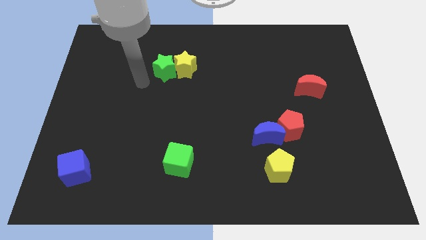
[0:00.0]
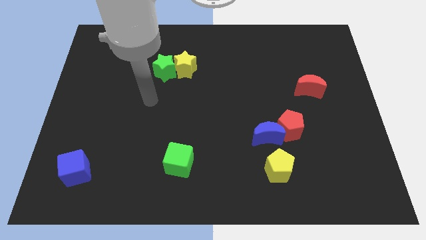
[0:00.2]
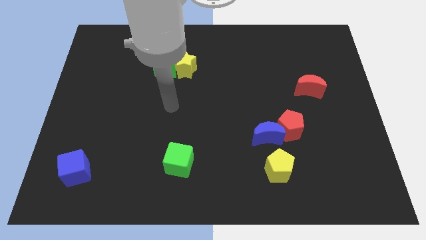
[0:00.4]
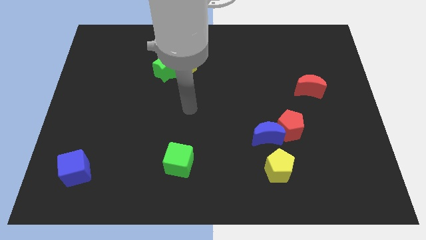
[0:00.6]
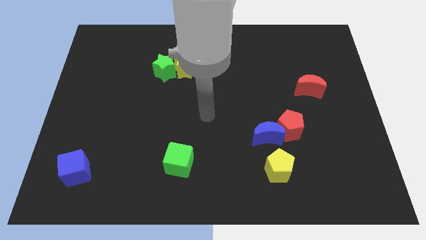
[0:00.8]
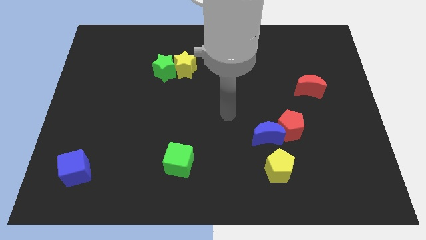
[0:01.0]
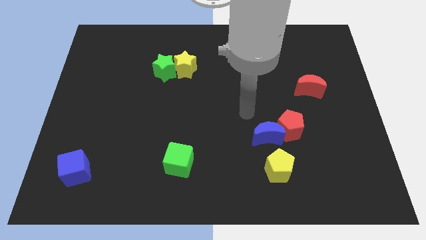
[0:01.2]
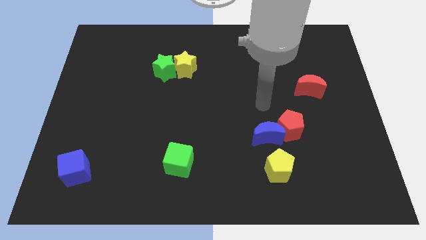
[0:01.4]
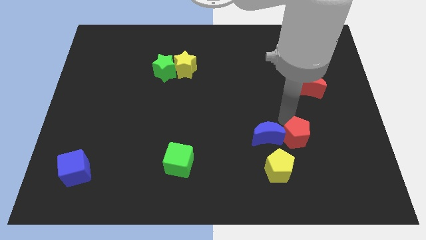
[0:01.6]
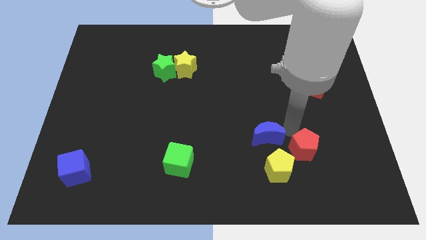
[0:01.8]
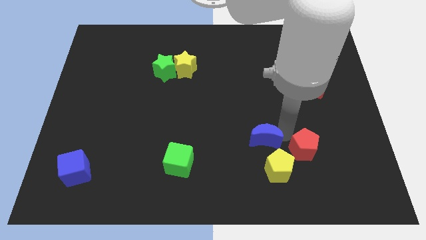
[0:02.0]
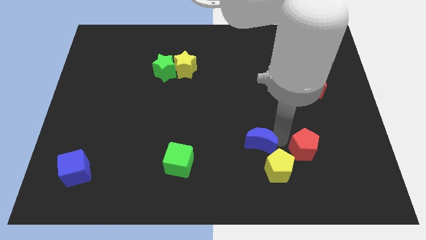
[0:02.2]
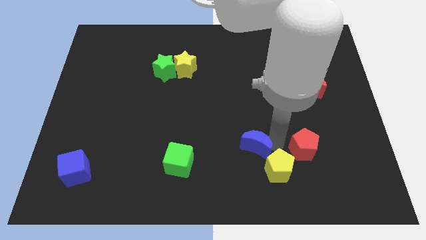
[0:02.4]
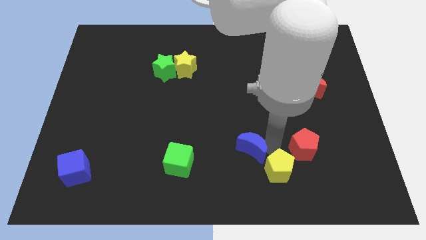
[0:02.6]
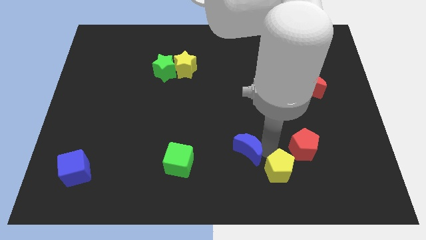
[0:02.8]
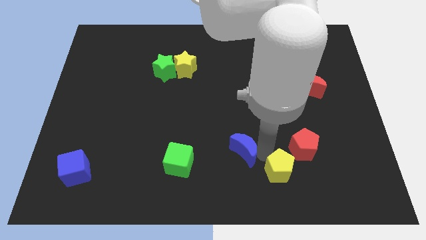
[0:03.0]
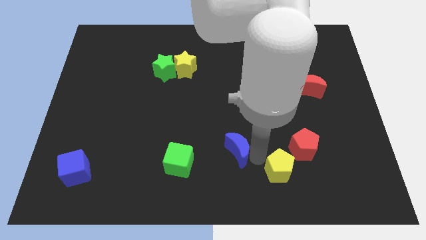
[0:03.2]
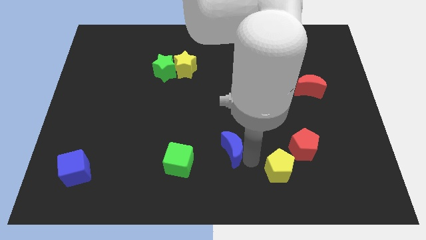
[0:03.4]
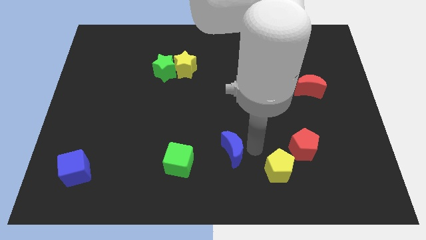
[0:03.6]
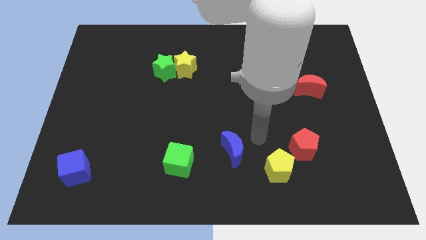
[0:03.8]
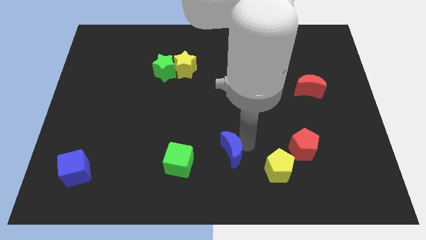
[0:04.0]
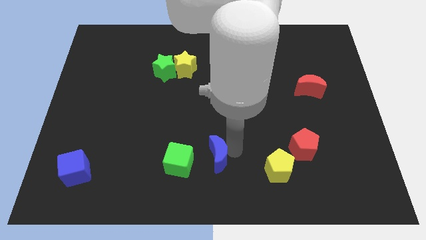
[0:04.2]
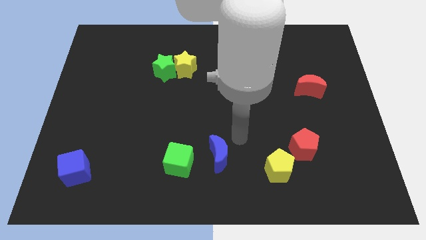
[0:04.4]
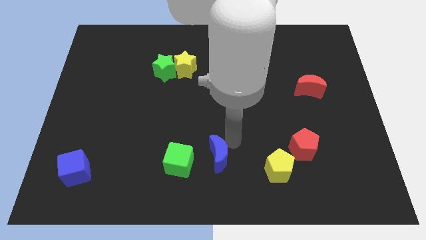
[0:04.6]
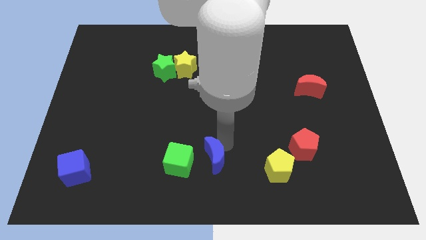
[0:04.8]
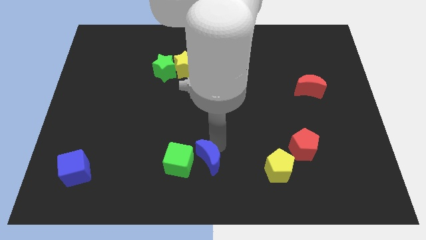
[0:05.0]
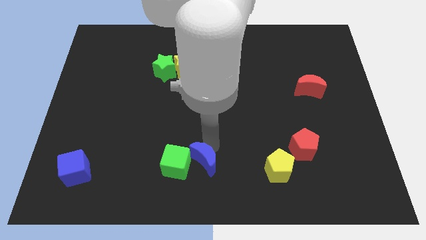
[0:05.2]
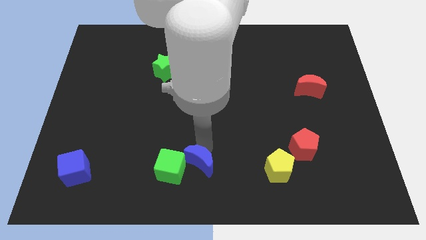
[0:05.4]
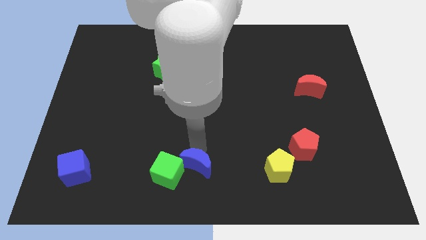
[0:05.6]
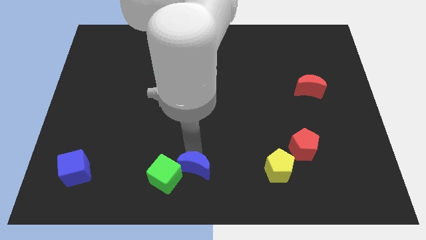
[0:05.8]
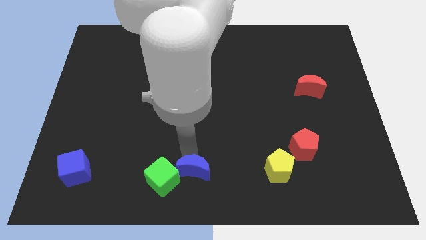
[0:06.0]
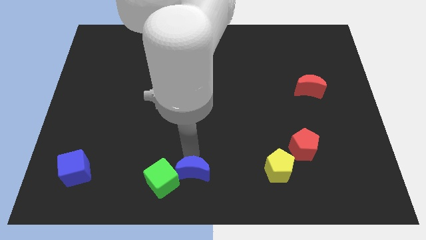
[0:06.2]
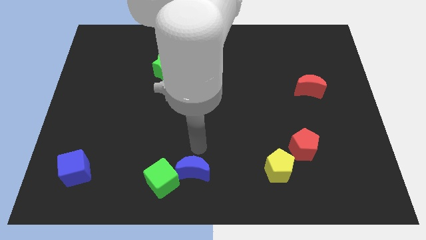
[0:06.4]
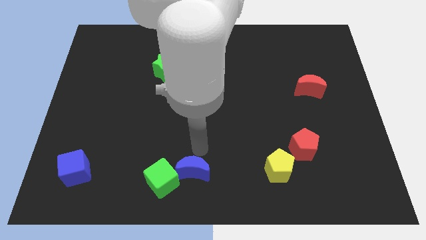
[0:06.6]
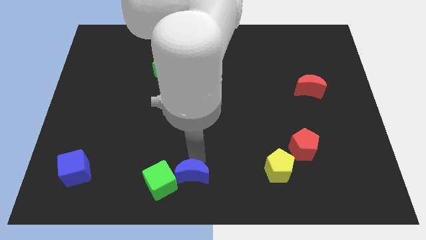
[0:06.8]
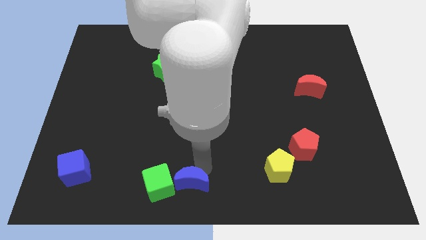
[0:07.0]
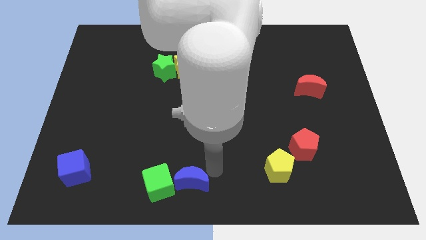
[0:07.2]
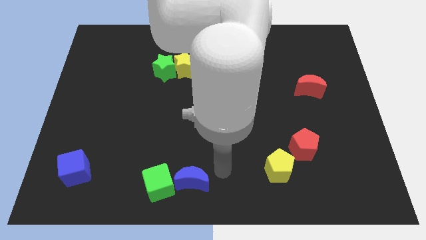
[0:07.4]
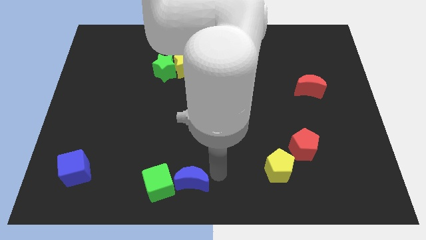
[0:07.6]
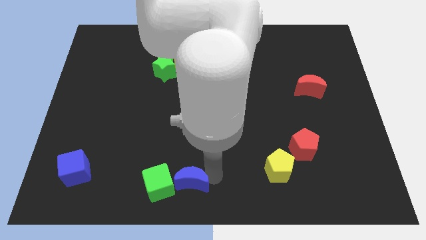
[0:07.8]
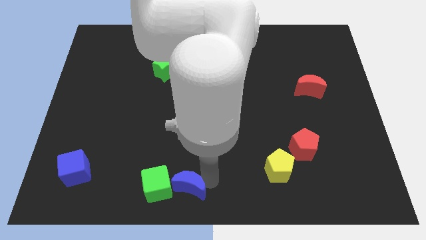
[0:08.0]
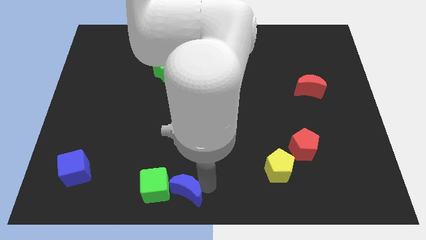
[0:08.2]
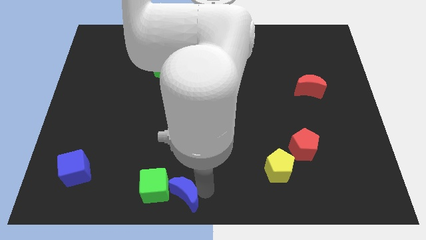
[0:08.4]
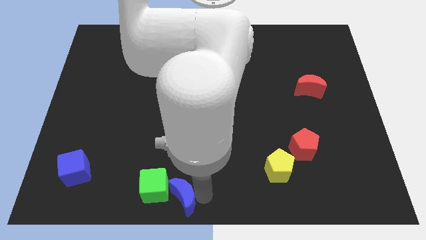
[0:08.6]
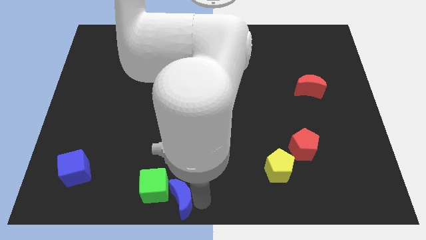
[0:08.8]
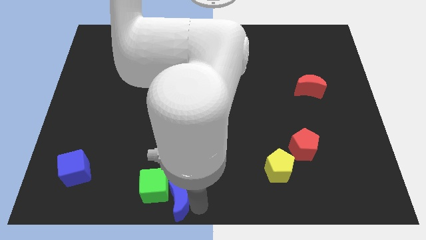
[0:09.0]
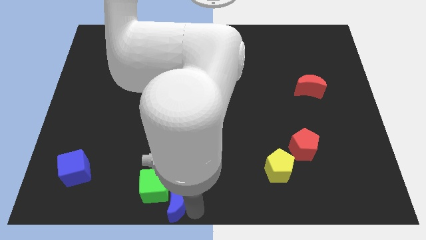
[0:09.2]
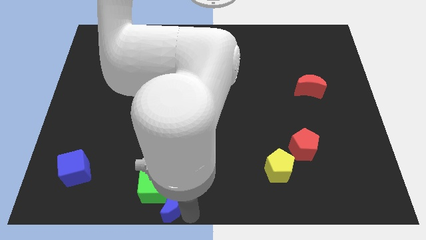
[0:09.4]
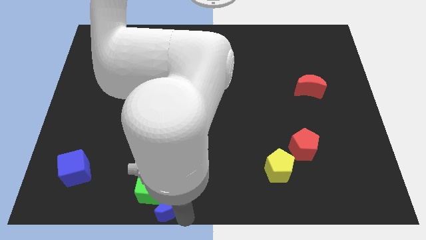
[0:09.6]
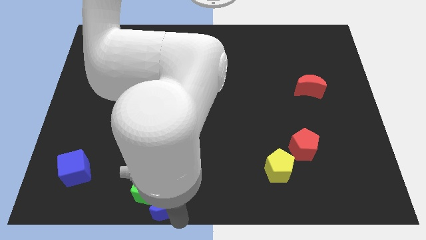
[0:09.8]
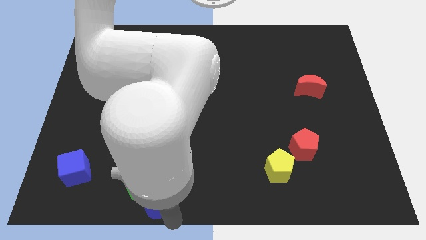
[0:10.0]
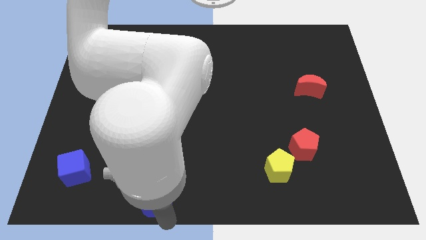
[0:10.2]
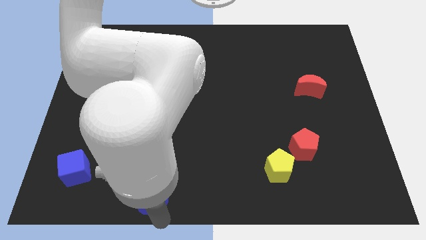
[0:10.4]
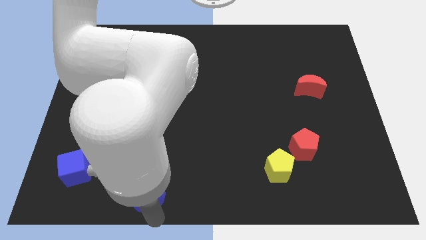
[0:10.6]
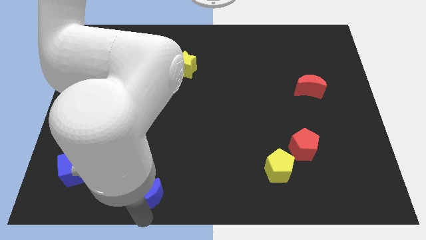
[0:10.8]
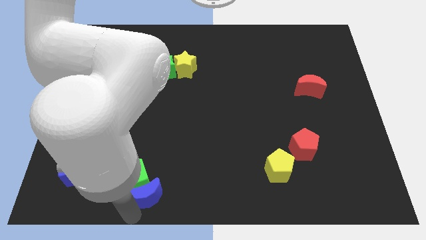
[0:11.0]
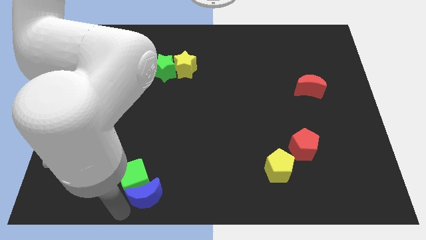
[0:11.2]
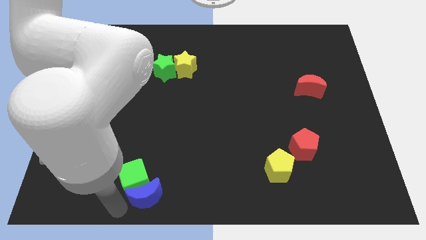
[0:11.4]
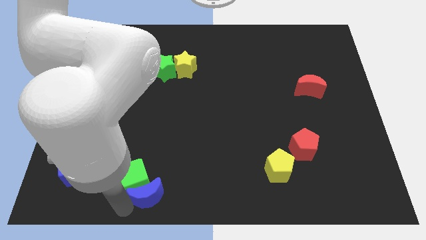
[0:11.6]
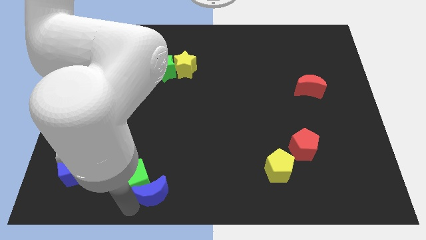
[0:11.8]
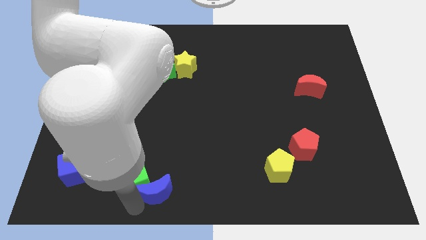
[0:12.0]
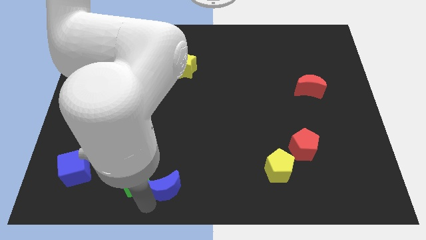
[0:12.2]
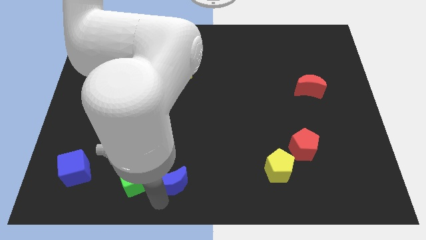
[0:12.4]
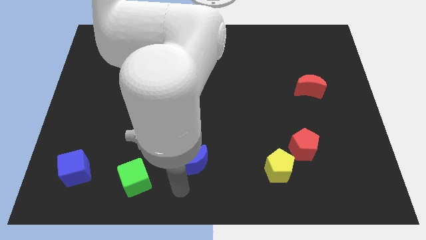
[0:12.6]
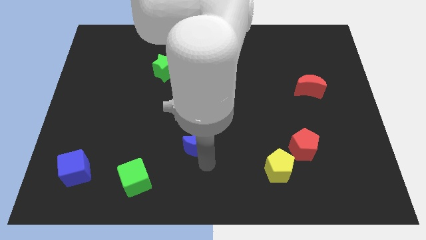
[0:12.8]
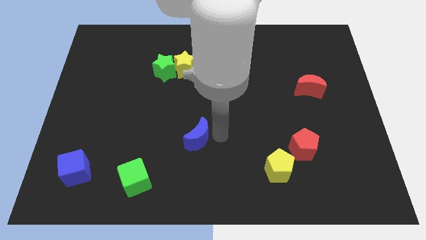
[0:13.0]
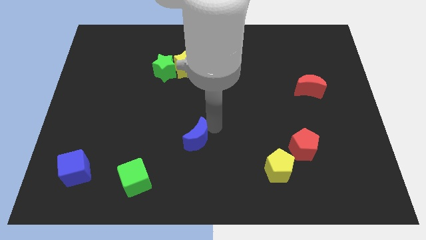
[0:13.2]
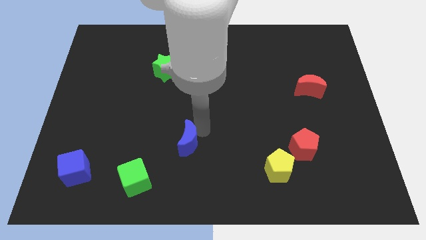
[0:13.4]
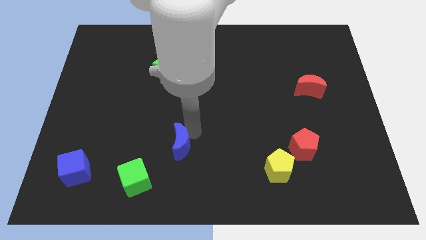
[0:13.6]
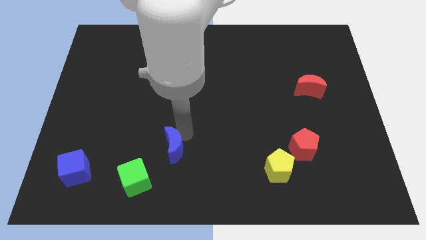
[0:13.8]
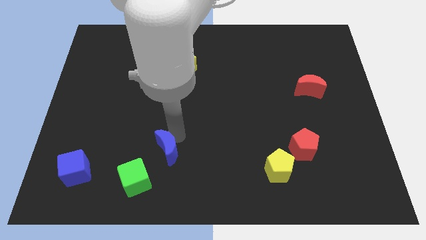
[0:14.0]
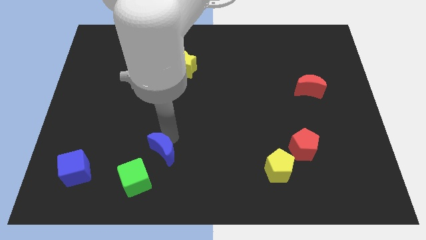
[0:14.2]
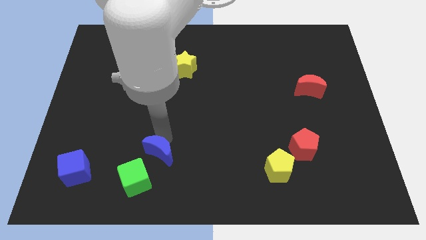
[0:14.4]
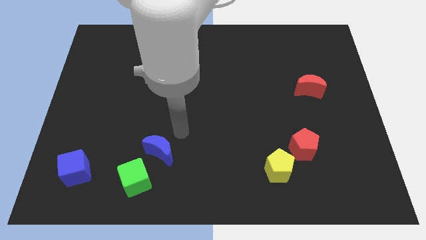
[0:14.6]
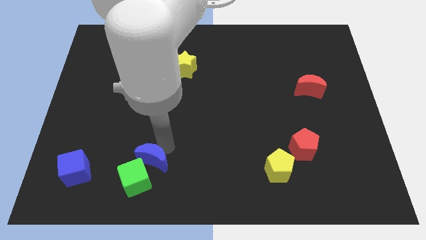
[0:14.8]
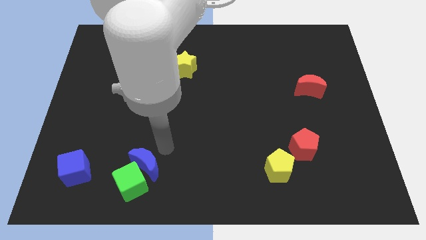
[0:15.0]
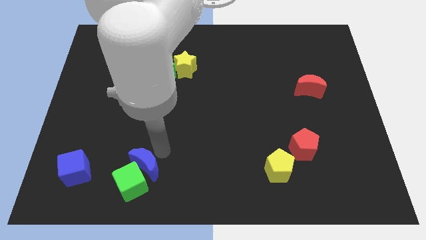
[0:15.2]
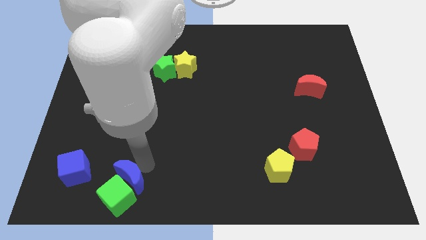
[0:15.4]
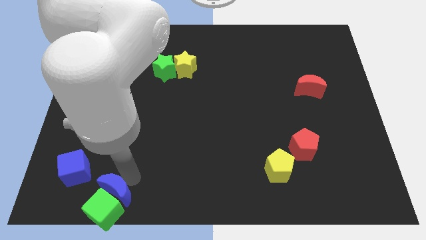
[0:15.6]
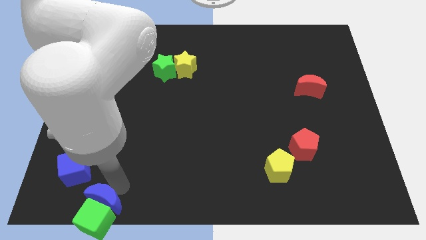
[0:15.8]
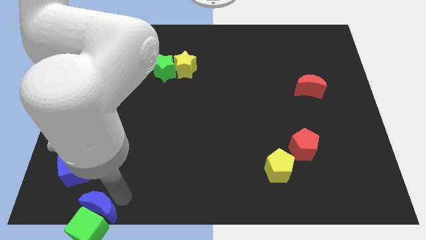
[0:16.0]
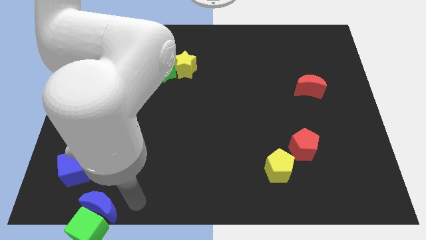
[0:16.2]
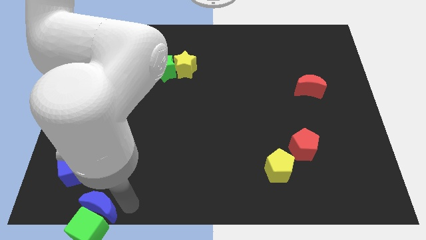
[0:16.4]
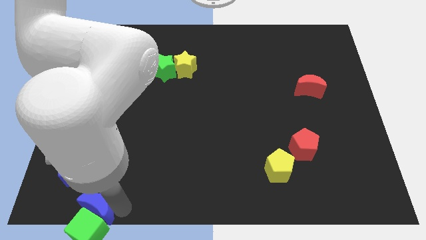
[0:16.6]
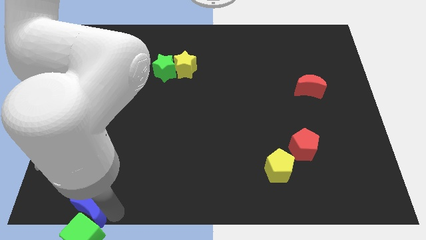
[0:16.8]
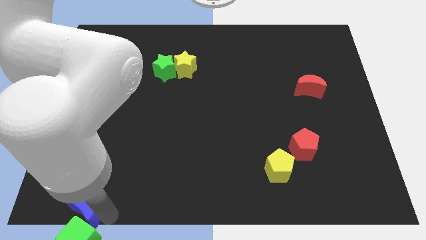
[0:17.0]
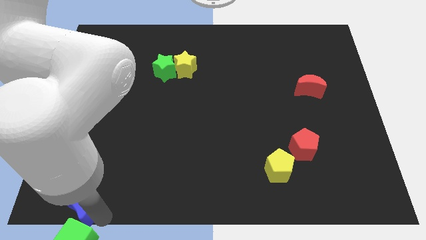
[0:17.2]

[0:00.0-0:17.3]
move the blue moon to the bottom left
